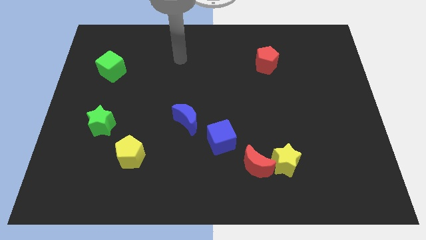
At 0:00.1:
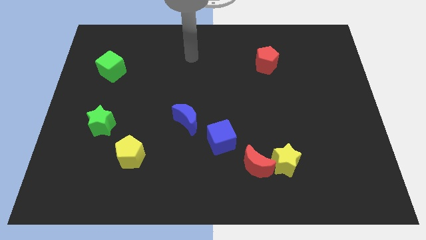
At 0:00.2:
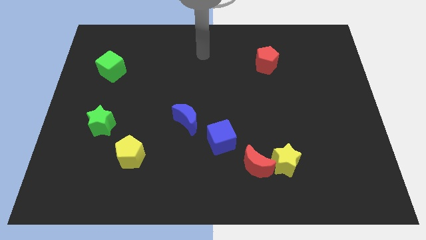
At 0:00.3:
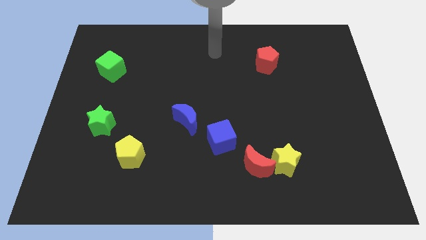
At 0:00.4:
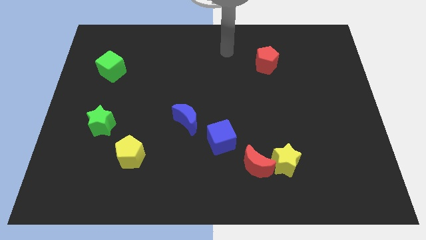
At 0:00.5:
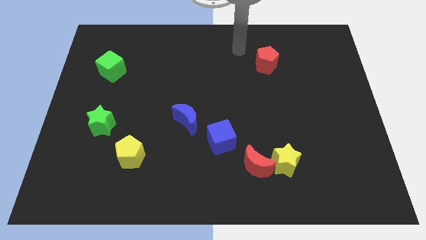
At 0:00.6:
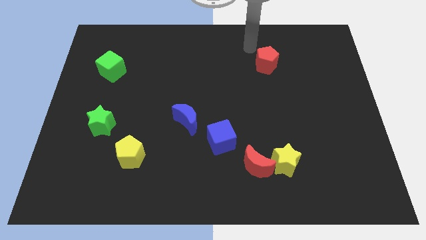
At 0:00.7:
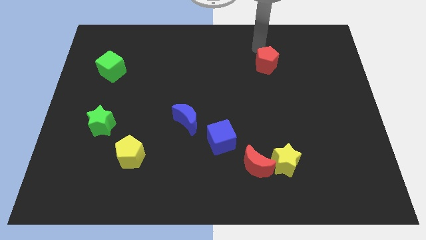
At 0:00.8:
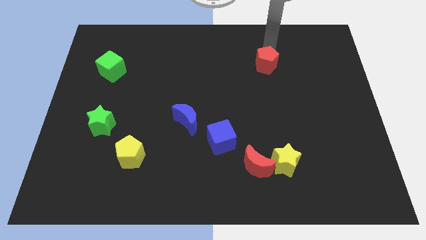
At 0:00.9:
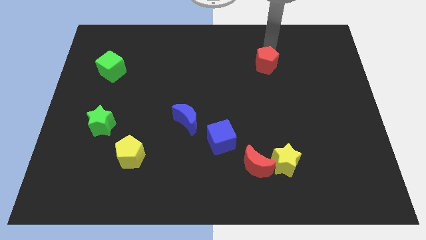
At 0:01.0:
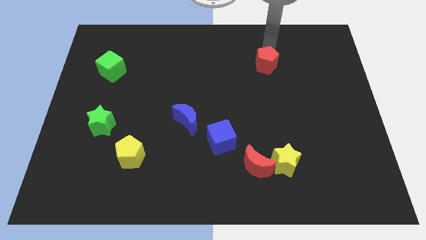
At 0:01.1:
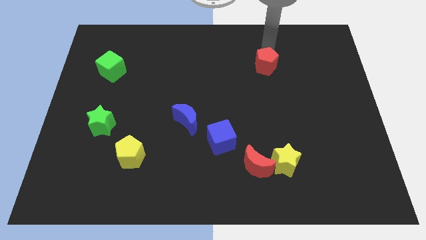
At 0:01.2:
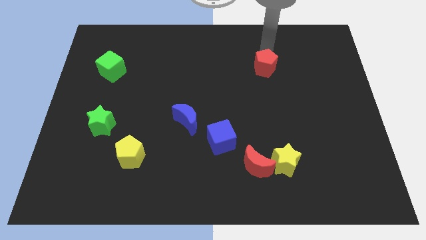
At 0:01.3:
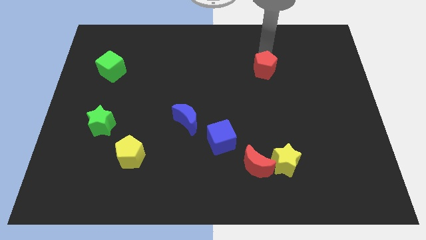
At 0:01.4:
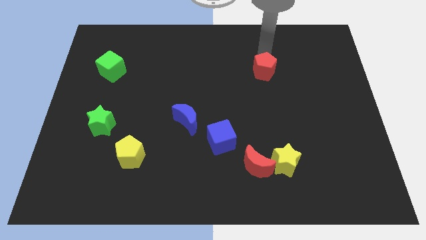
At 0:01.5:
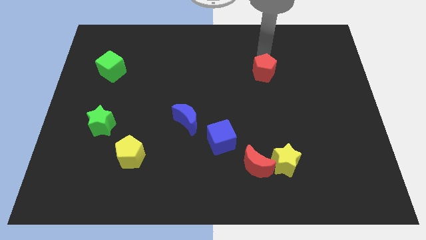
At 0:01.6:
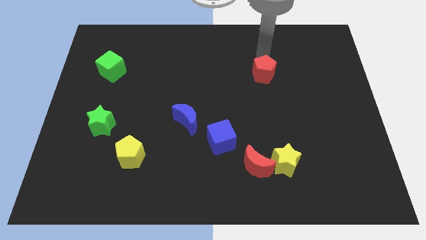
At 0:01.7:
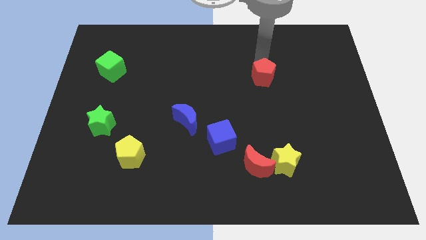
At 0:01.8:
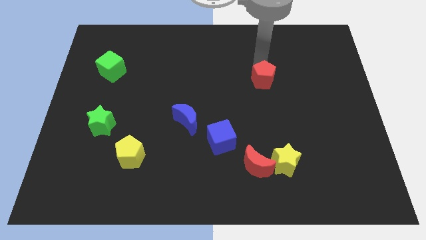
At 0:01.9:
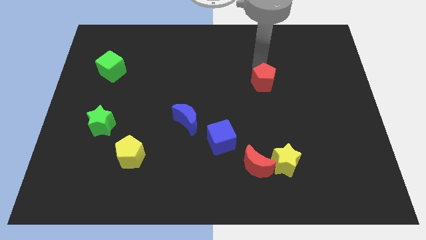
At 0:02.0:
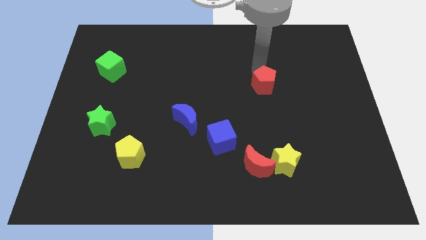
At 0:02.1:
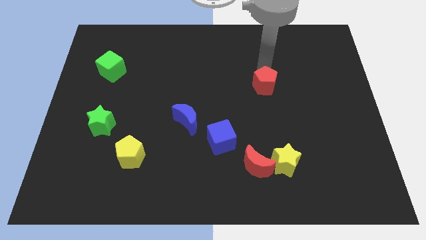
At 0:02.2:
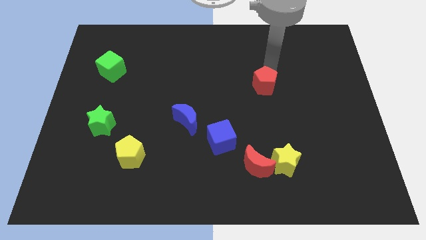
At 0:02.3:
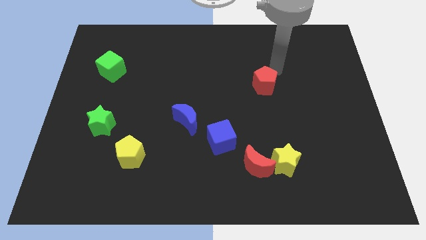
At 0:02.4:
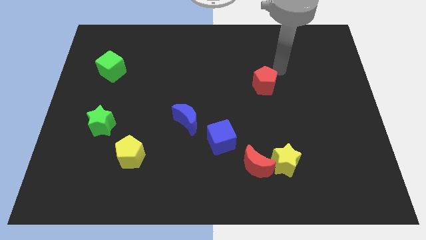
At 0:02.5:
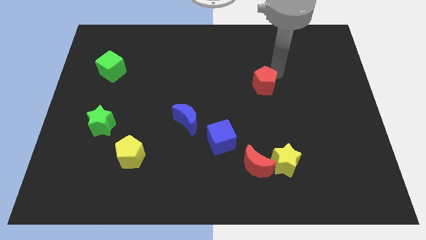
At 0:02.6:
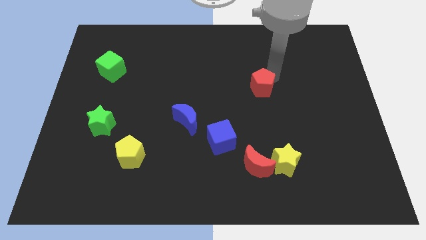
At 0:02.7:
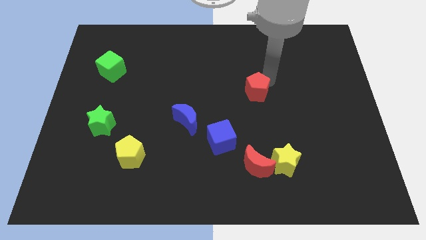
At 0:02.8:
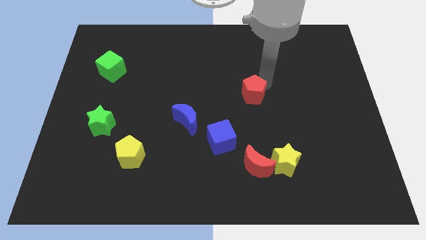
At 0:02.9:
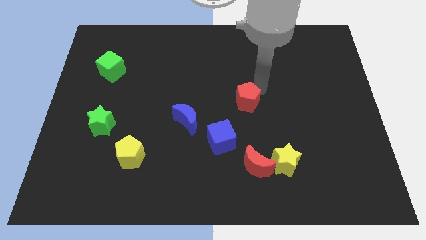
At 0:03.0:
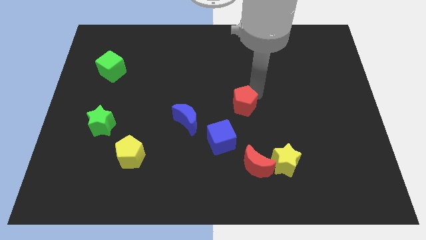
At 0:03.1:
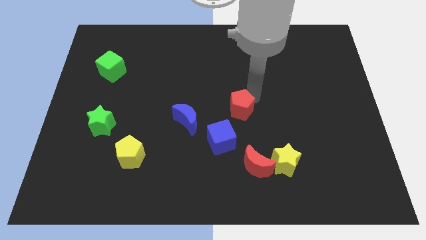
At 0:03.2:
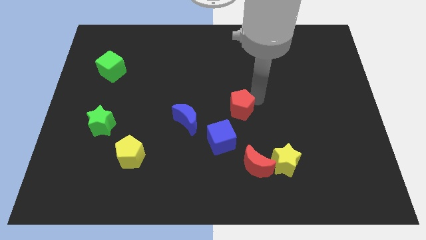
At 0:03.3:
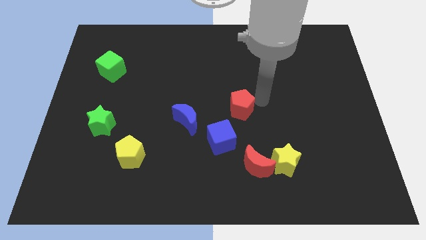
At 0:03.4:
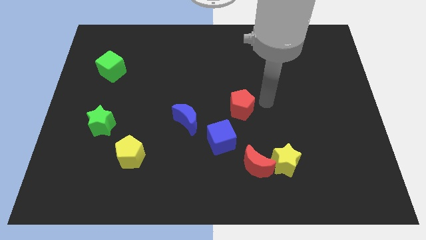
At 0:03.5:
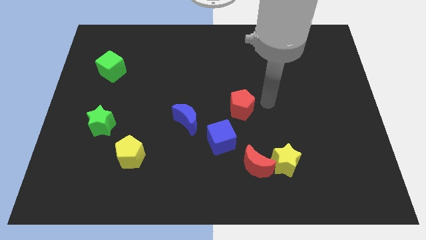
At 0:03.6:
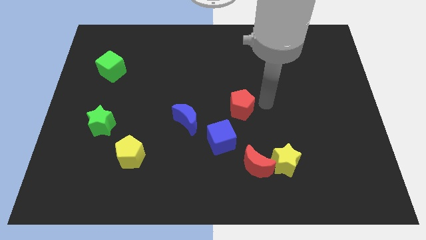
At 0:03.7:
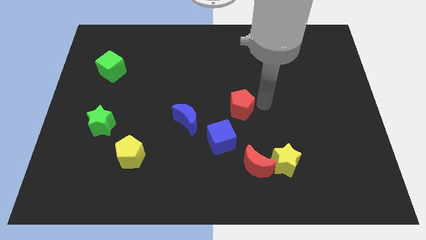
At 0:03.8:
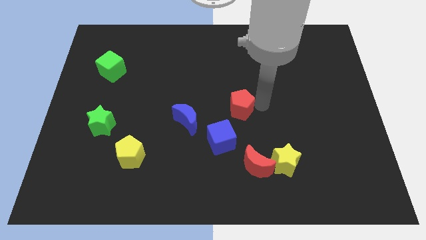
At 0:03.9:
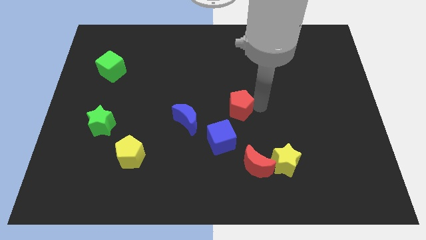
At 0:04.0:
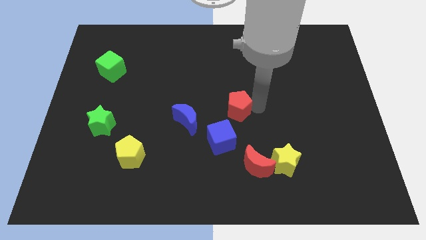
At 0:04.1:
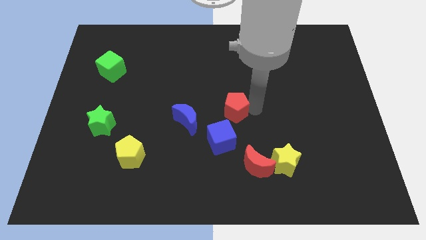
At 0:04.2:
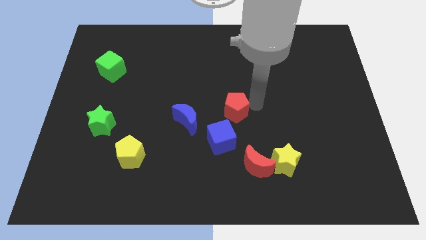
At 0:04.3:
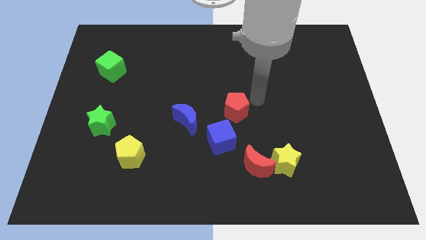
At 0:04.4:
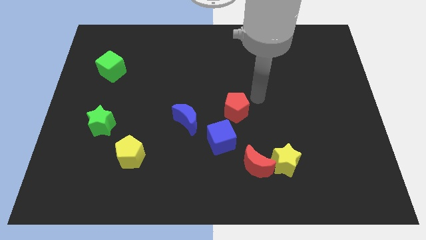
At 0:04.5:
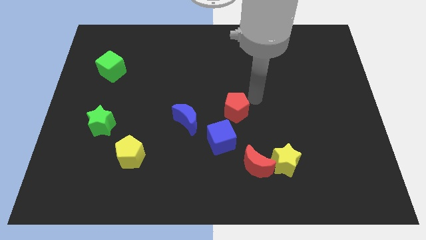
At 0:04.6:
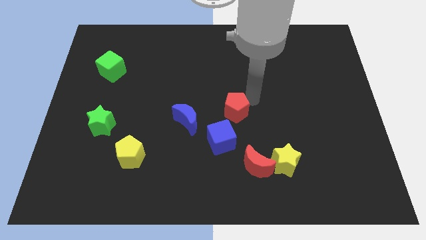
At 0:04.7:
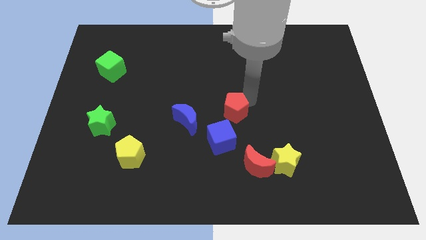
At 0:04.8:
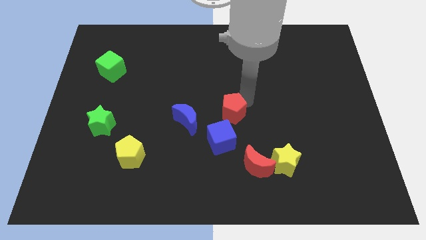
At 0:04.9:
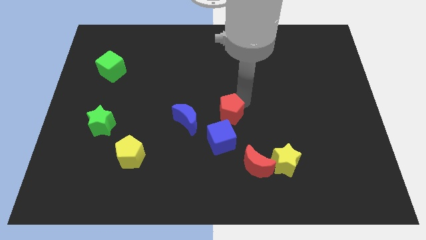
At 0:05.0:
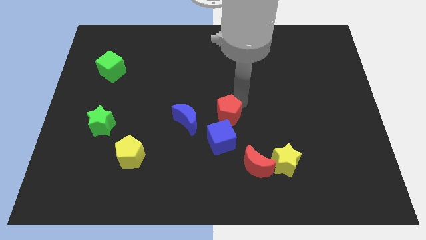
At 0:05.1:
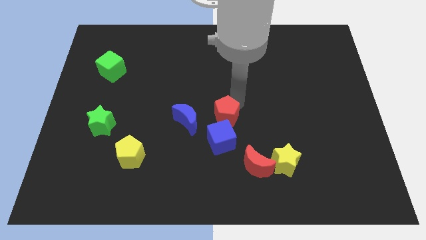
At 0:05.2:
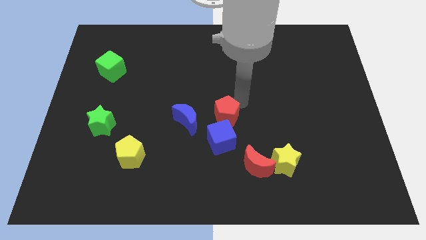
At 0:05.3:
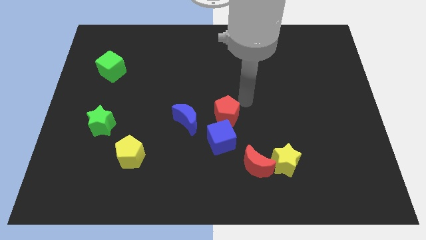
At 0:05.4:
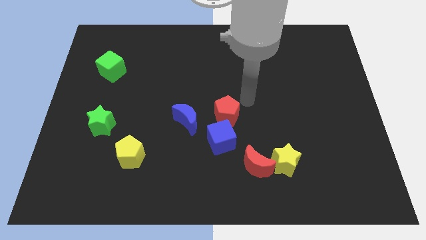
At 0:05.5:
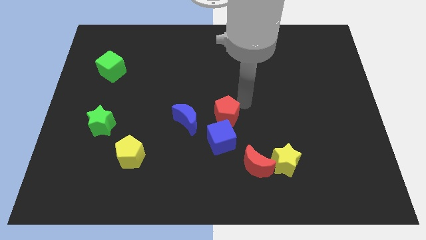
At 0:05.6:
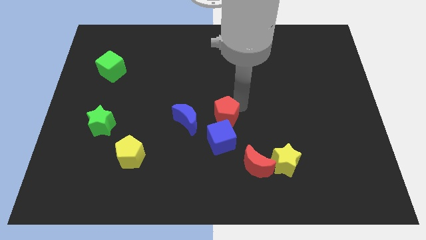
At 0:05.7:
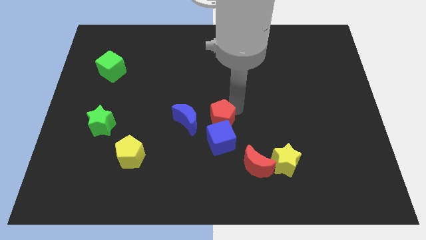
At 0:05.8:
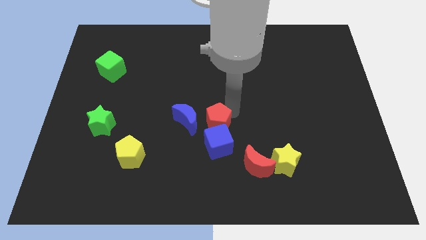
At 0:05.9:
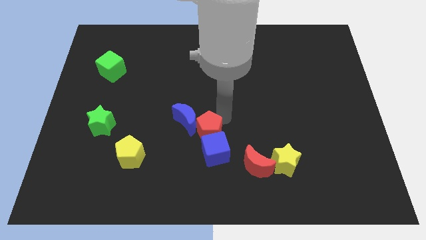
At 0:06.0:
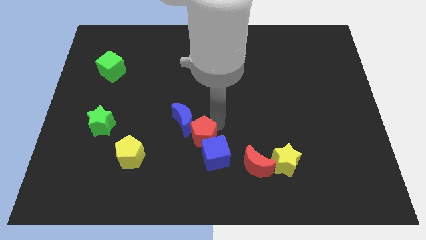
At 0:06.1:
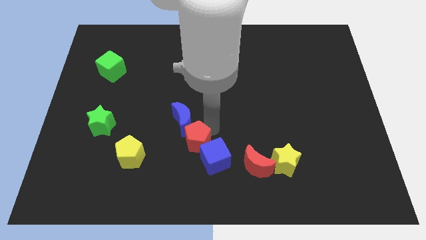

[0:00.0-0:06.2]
slide the red pentagon right of the yellow pentagon
